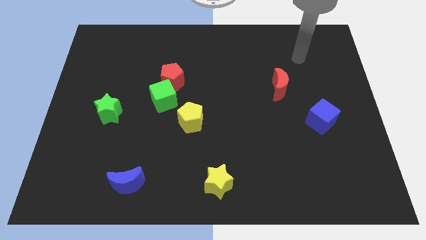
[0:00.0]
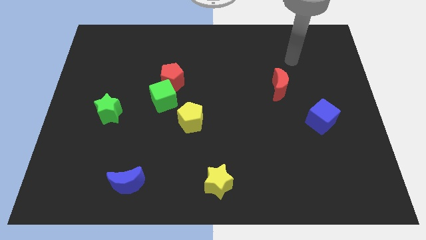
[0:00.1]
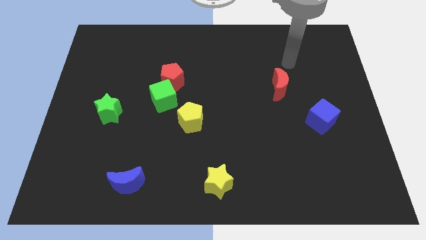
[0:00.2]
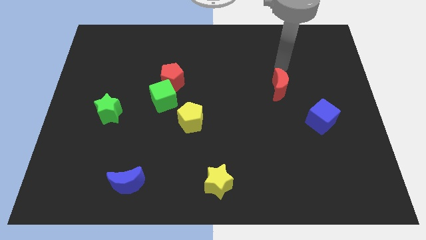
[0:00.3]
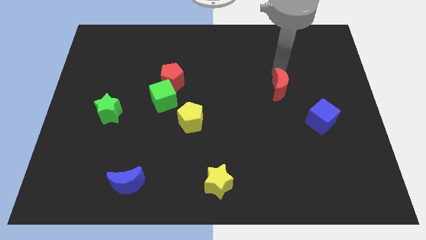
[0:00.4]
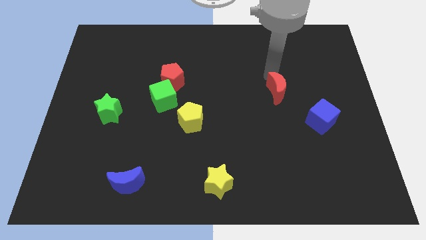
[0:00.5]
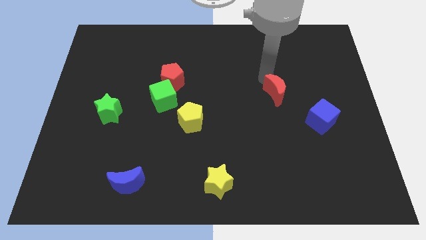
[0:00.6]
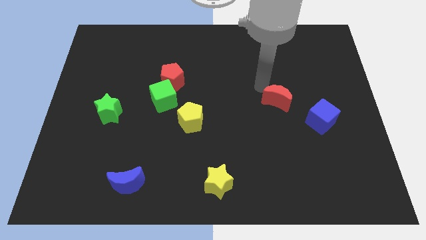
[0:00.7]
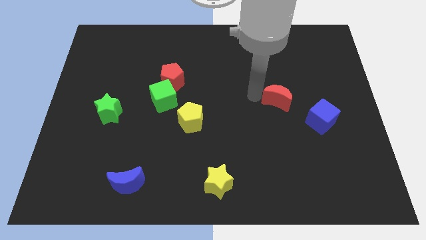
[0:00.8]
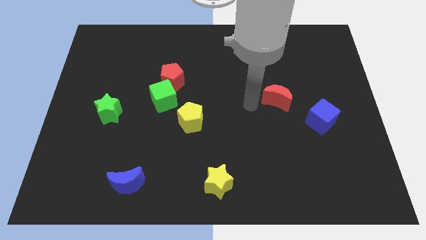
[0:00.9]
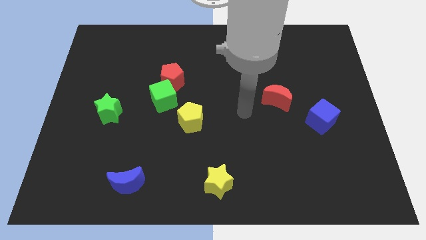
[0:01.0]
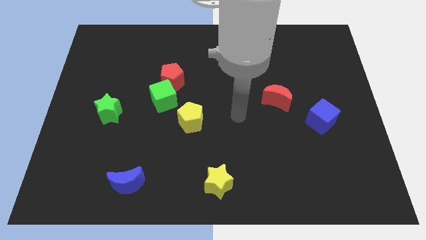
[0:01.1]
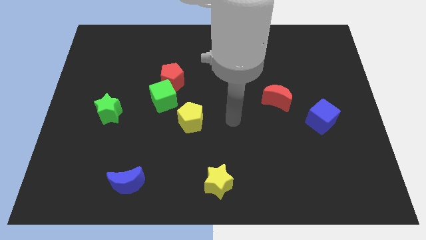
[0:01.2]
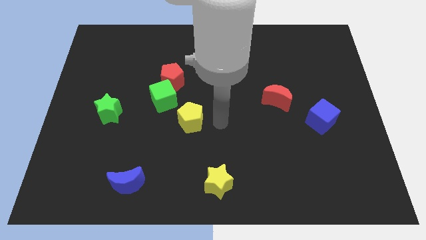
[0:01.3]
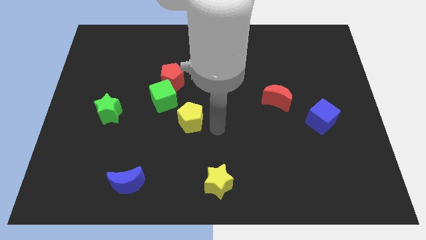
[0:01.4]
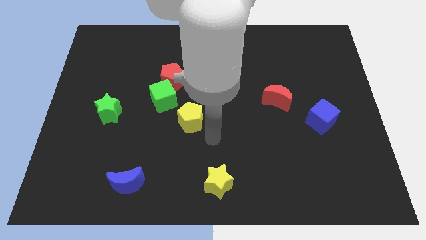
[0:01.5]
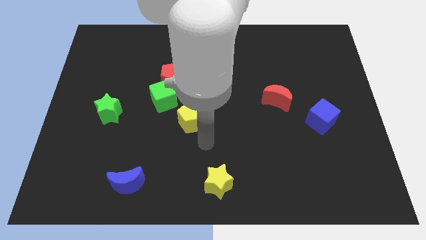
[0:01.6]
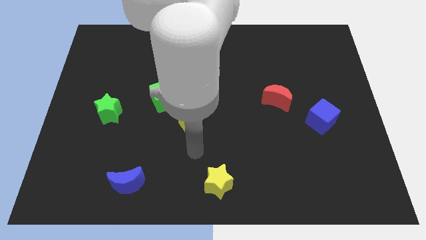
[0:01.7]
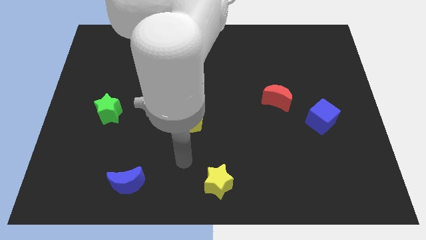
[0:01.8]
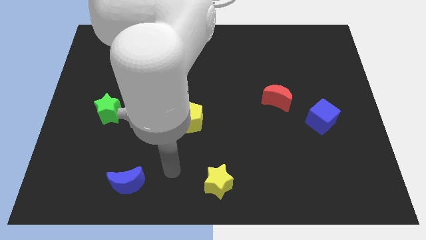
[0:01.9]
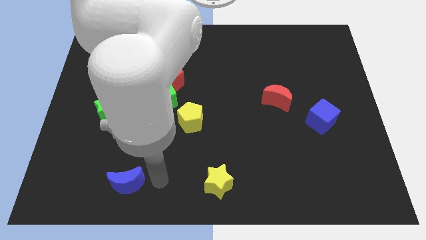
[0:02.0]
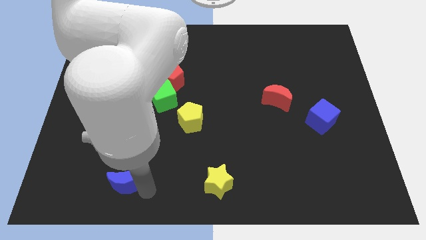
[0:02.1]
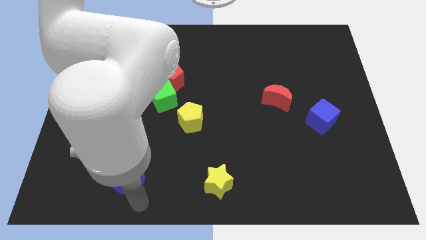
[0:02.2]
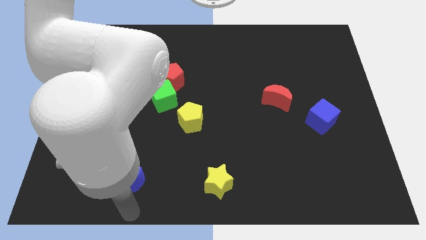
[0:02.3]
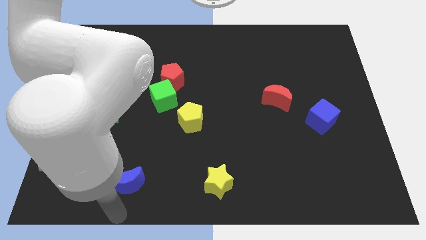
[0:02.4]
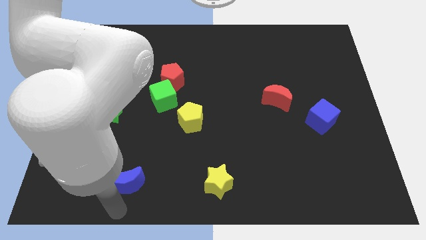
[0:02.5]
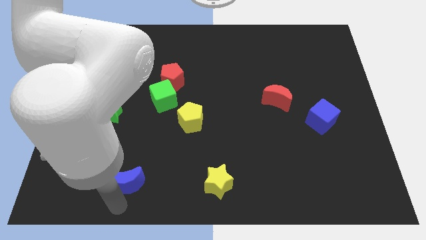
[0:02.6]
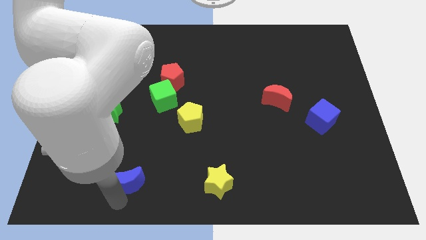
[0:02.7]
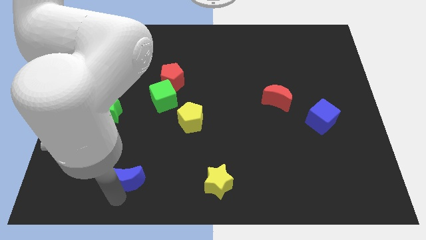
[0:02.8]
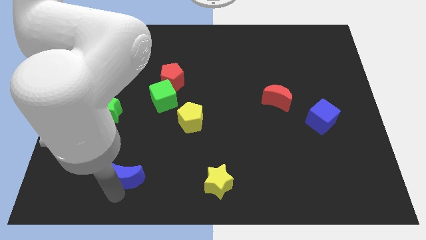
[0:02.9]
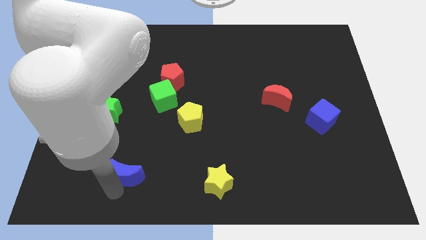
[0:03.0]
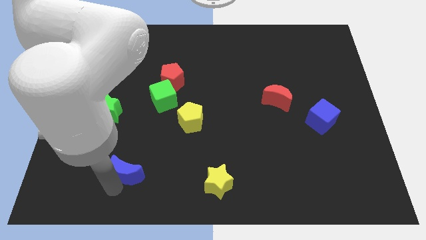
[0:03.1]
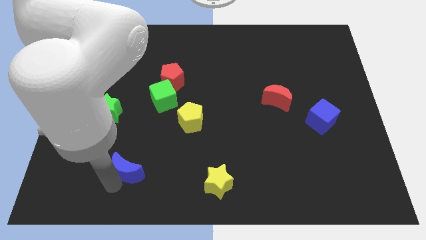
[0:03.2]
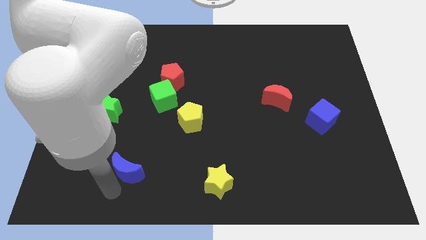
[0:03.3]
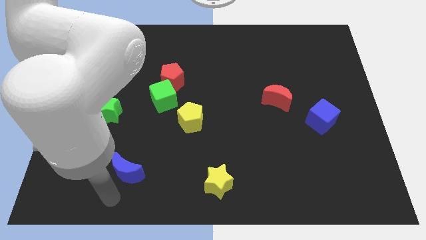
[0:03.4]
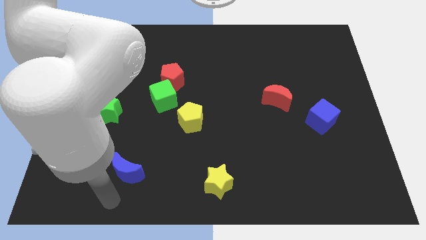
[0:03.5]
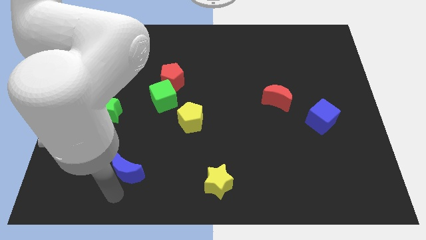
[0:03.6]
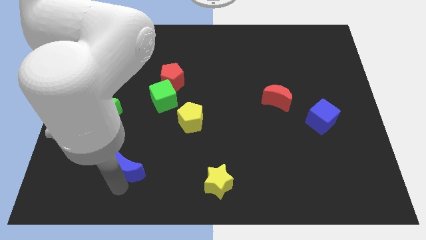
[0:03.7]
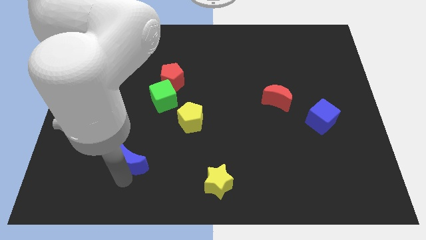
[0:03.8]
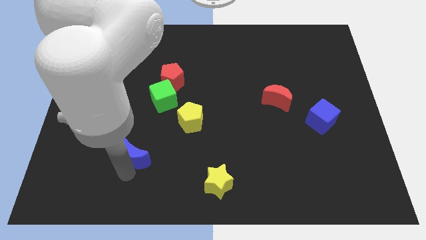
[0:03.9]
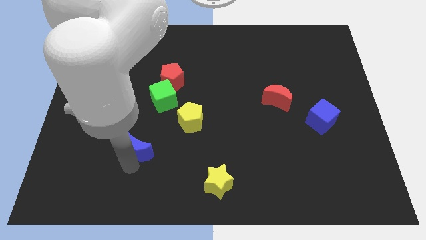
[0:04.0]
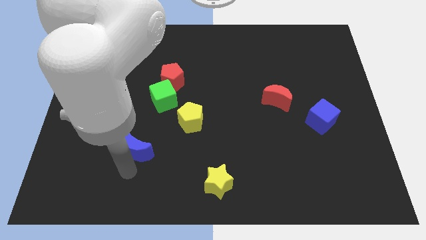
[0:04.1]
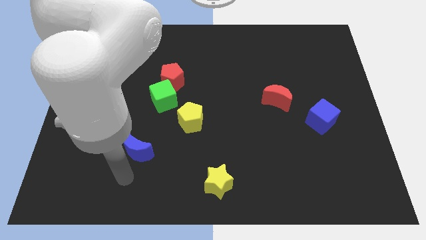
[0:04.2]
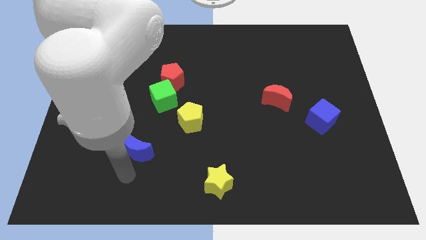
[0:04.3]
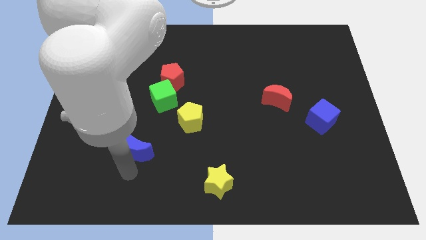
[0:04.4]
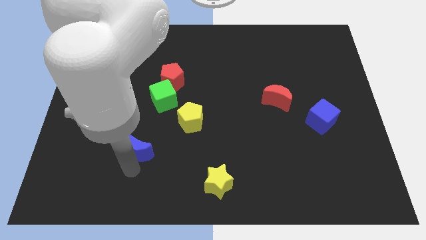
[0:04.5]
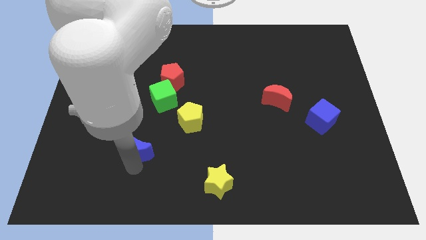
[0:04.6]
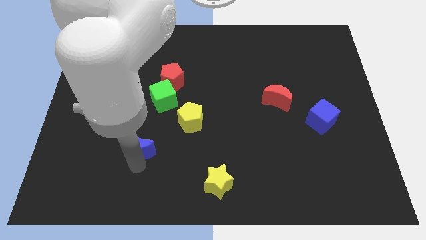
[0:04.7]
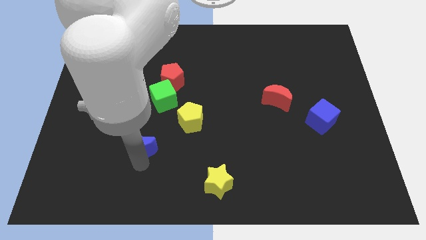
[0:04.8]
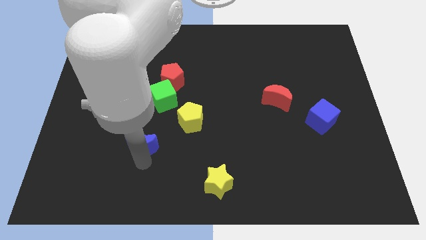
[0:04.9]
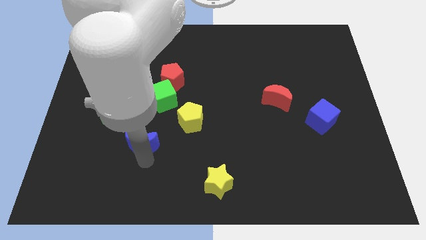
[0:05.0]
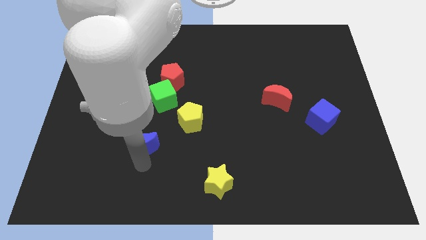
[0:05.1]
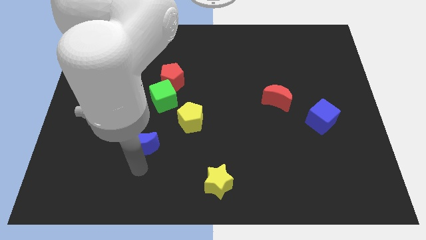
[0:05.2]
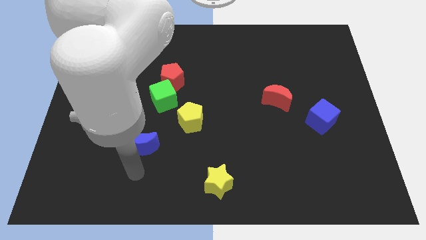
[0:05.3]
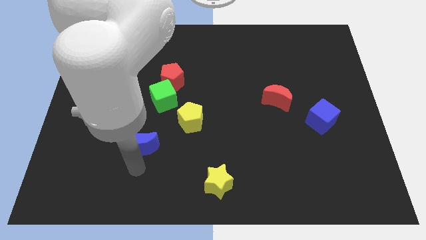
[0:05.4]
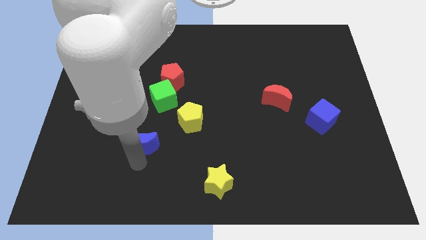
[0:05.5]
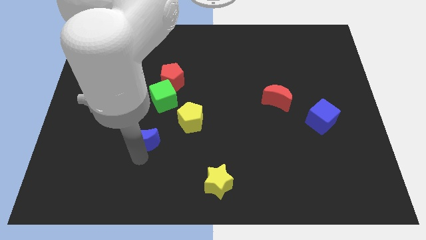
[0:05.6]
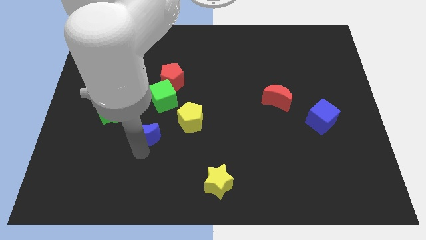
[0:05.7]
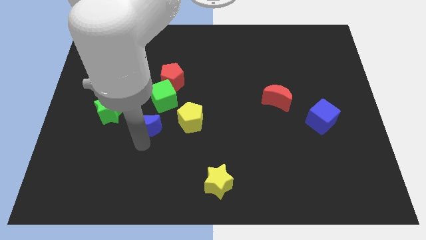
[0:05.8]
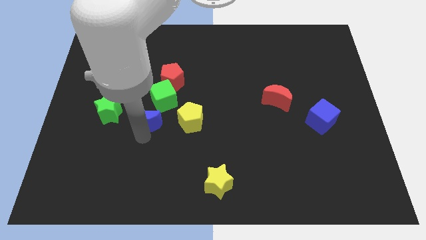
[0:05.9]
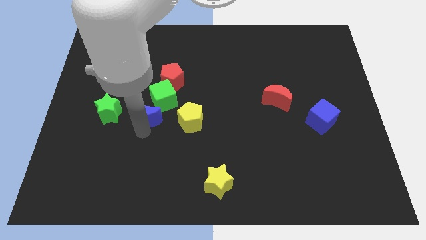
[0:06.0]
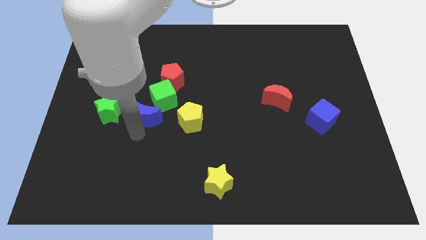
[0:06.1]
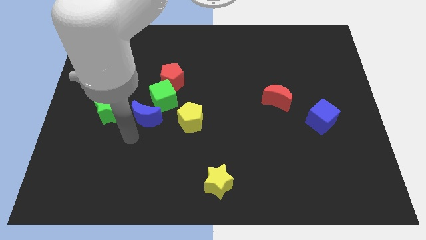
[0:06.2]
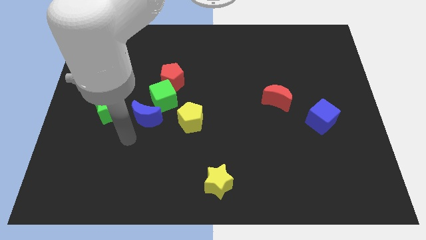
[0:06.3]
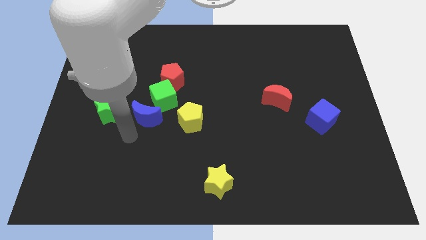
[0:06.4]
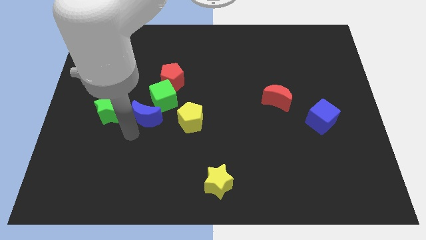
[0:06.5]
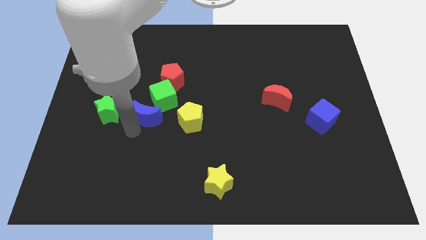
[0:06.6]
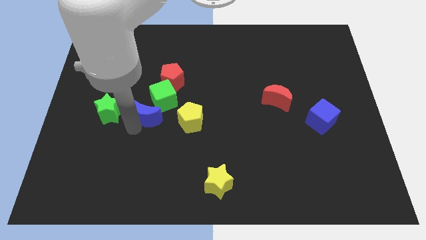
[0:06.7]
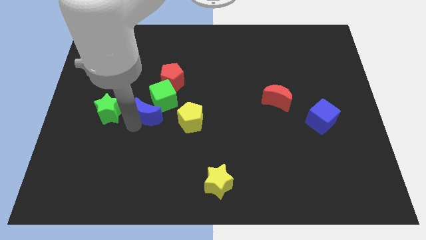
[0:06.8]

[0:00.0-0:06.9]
push the blue moon towards the green cube

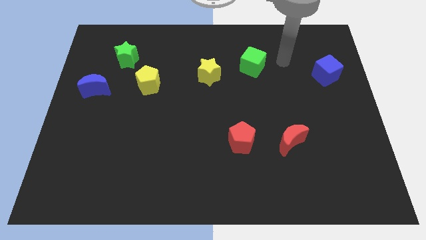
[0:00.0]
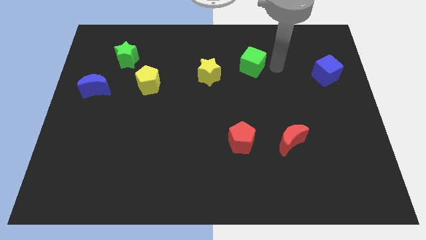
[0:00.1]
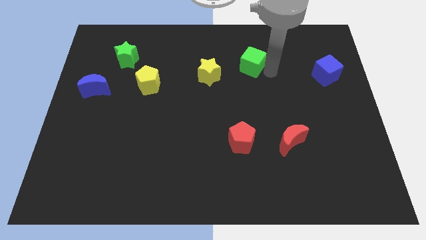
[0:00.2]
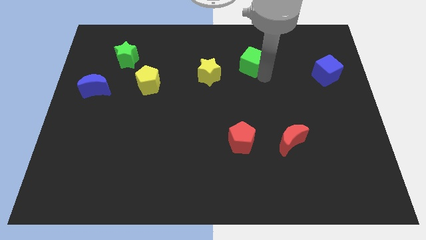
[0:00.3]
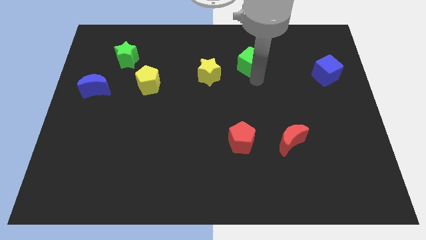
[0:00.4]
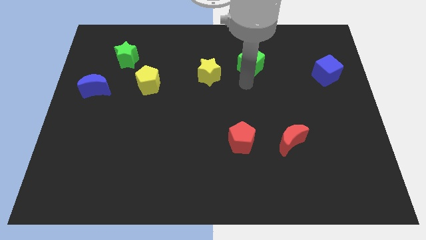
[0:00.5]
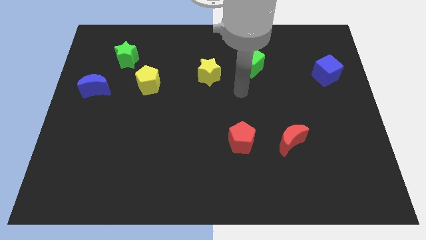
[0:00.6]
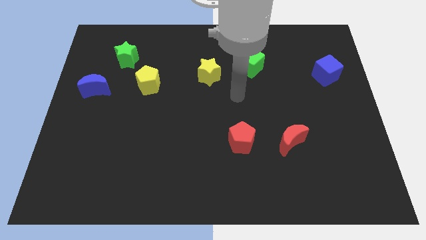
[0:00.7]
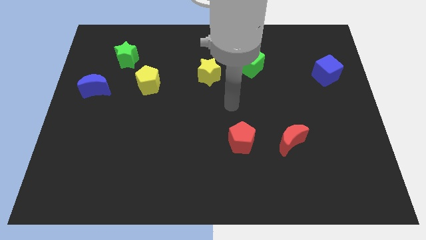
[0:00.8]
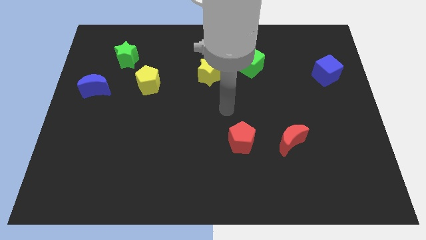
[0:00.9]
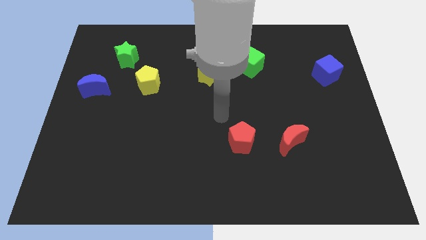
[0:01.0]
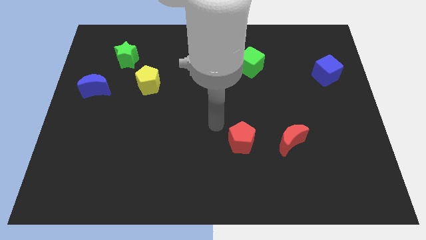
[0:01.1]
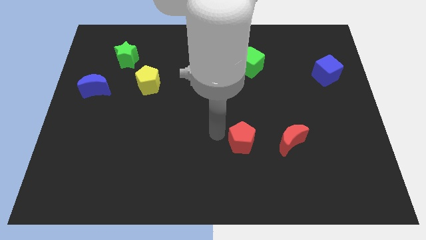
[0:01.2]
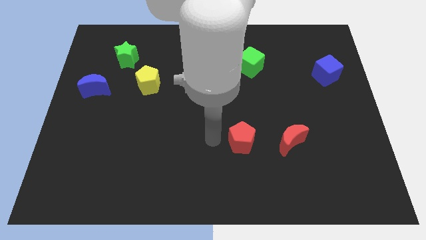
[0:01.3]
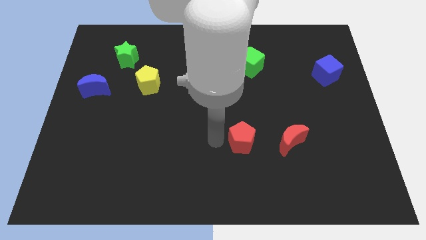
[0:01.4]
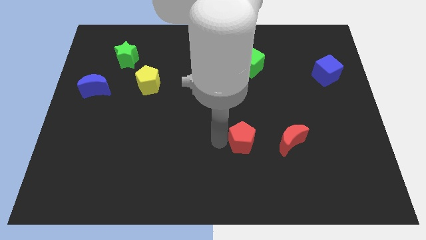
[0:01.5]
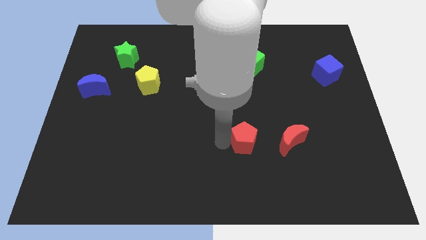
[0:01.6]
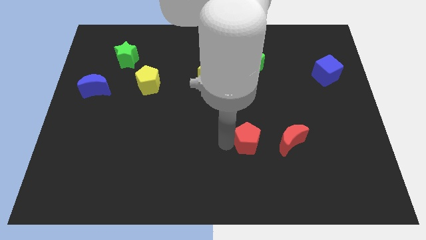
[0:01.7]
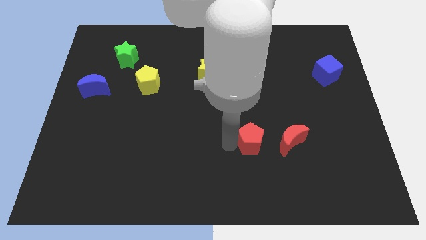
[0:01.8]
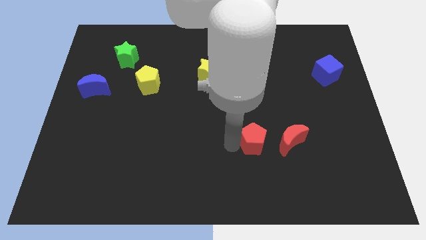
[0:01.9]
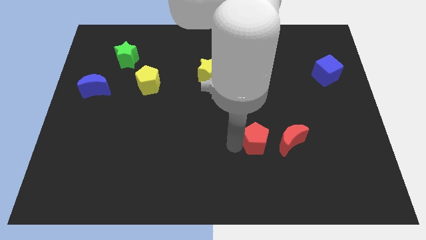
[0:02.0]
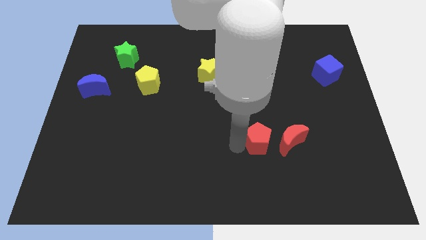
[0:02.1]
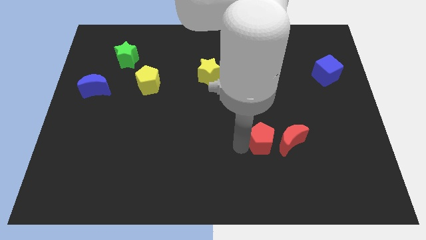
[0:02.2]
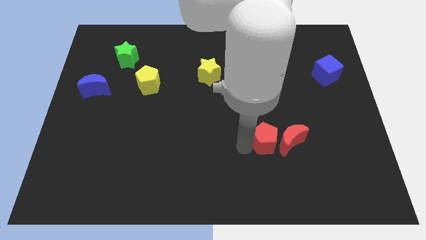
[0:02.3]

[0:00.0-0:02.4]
move the red pentagon close to the red moon
